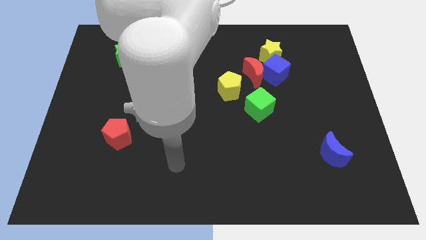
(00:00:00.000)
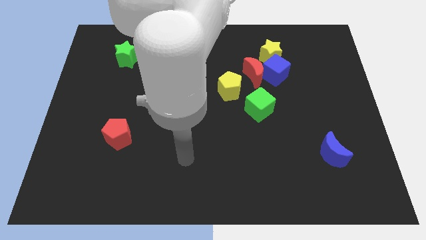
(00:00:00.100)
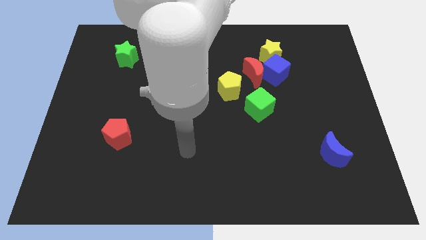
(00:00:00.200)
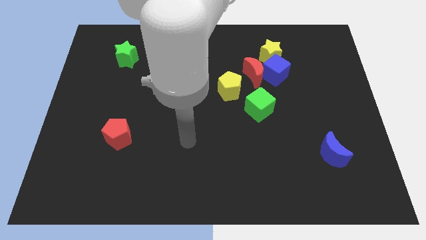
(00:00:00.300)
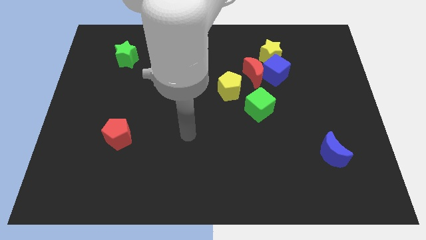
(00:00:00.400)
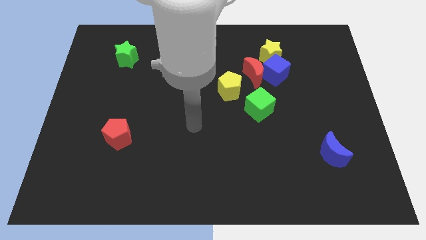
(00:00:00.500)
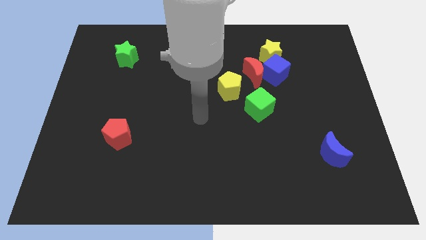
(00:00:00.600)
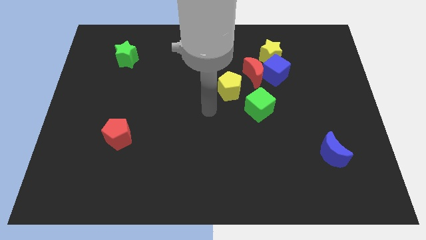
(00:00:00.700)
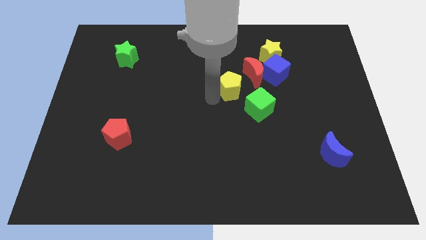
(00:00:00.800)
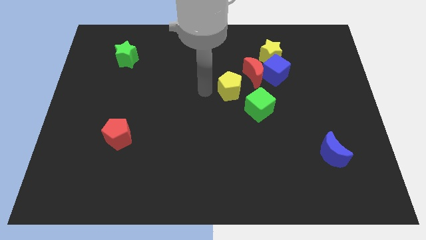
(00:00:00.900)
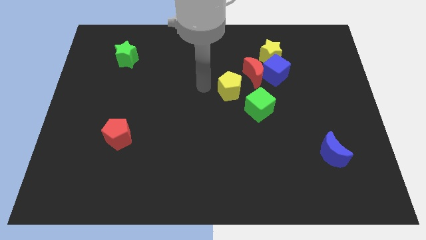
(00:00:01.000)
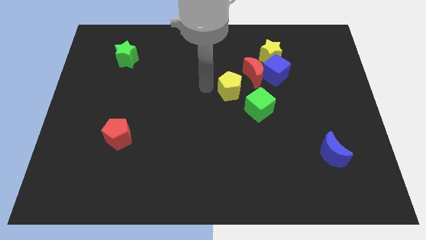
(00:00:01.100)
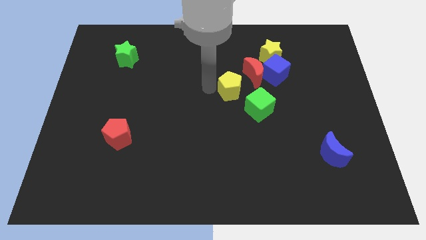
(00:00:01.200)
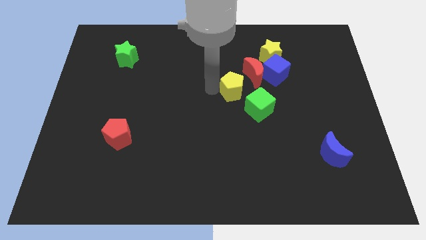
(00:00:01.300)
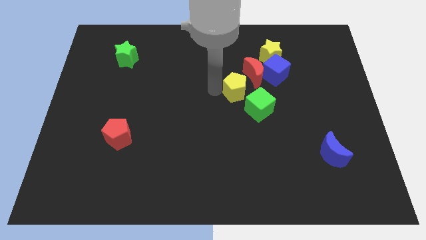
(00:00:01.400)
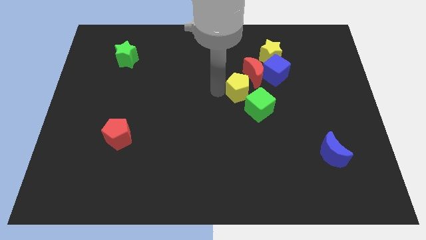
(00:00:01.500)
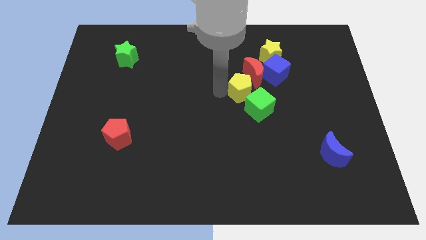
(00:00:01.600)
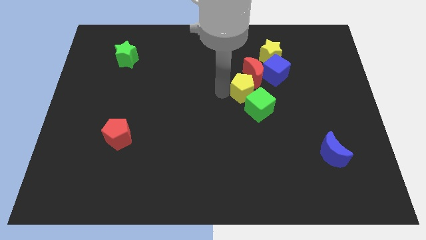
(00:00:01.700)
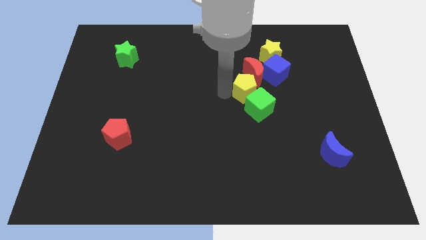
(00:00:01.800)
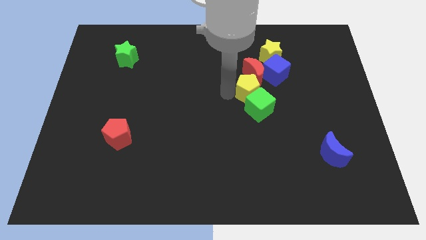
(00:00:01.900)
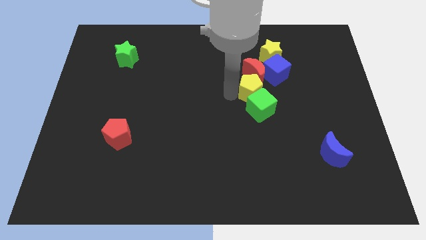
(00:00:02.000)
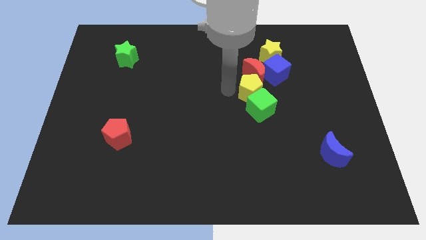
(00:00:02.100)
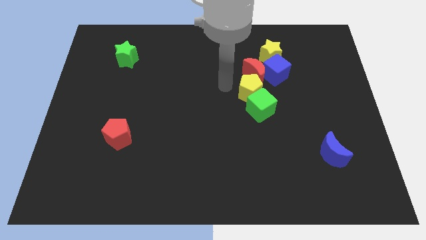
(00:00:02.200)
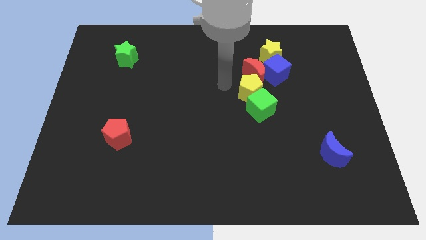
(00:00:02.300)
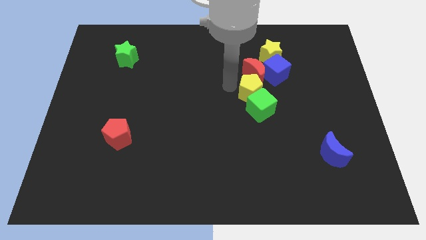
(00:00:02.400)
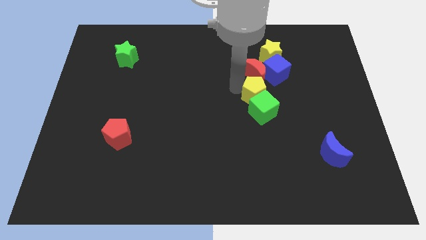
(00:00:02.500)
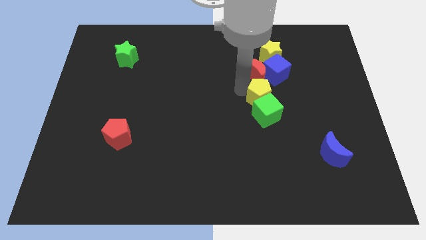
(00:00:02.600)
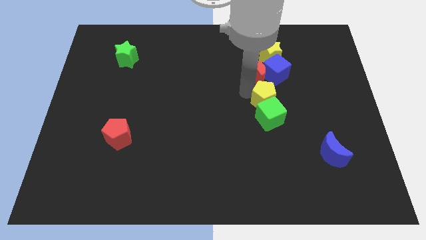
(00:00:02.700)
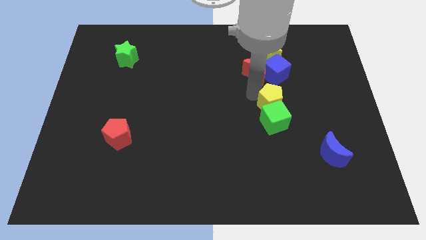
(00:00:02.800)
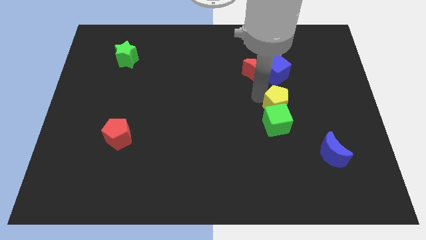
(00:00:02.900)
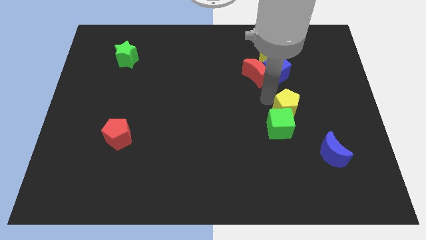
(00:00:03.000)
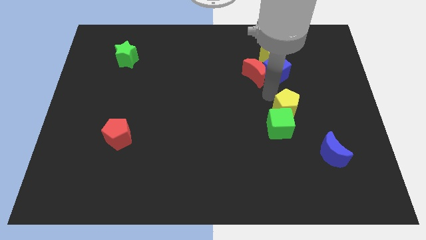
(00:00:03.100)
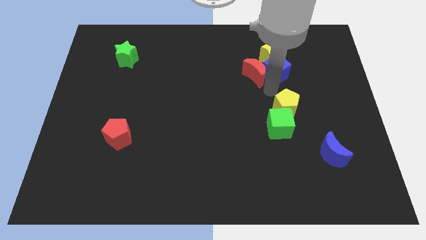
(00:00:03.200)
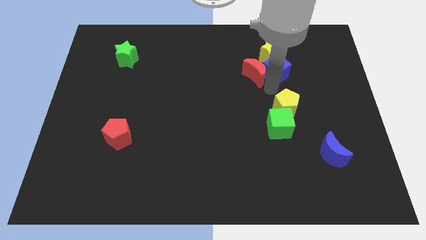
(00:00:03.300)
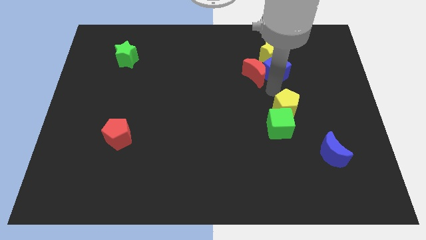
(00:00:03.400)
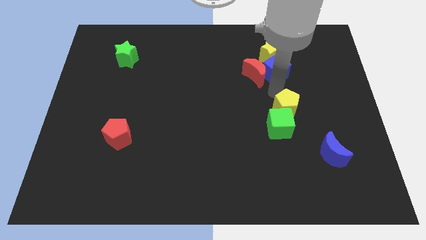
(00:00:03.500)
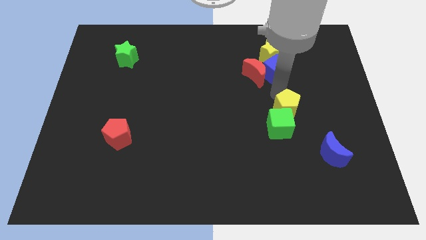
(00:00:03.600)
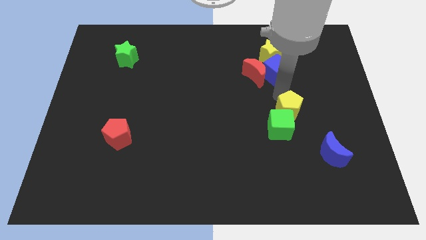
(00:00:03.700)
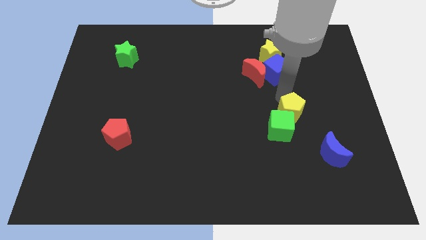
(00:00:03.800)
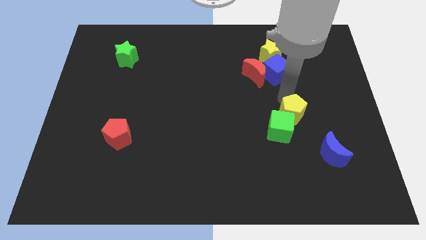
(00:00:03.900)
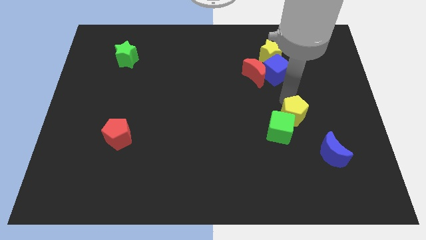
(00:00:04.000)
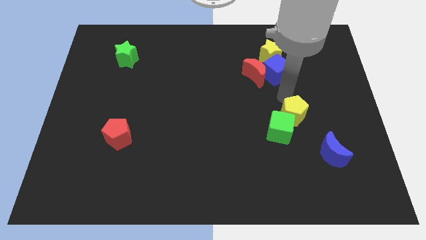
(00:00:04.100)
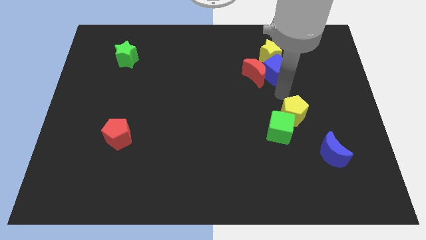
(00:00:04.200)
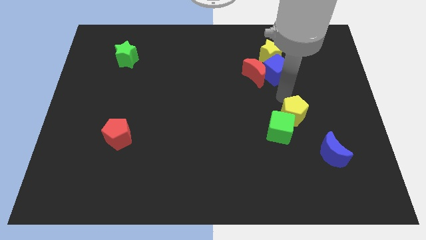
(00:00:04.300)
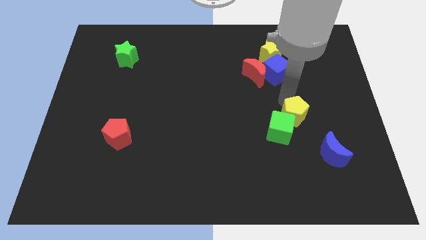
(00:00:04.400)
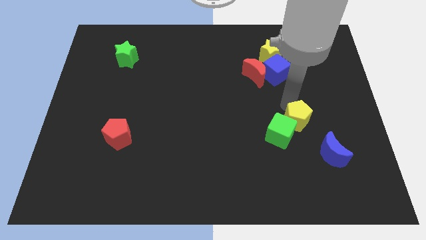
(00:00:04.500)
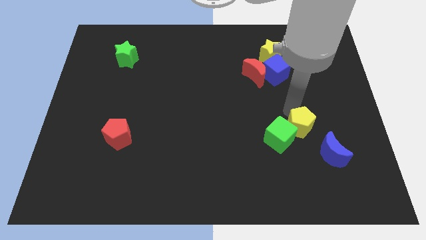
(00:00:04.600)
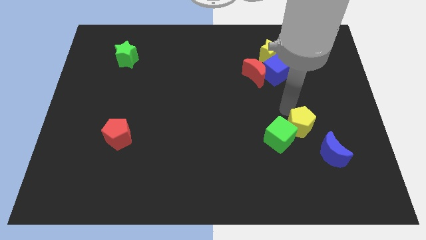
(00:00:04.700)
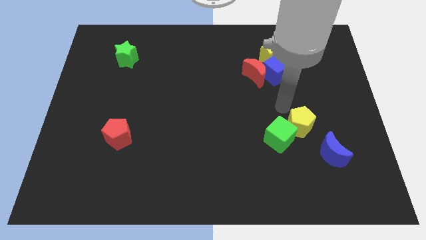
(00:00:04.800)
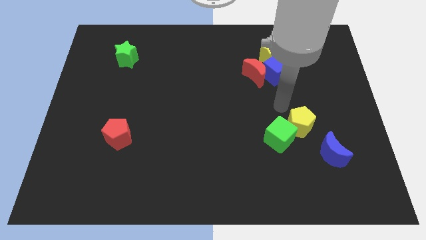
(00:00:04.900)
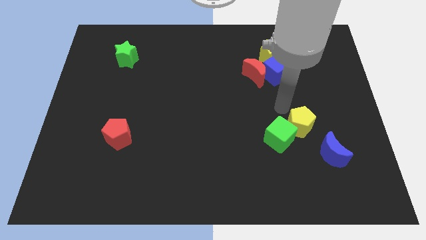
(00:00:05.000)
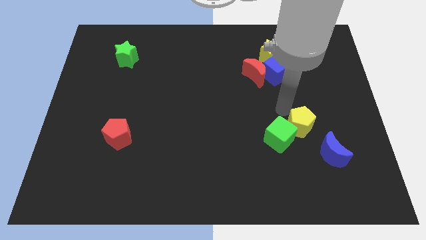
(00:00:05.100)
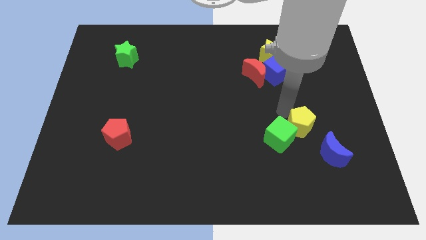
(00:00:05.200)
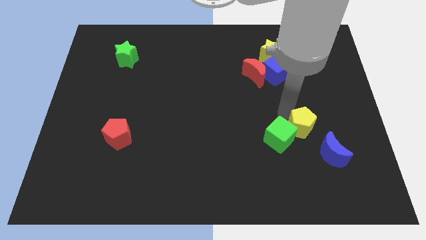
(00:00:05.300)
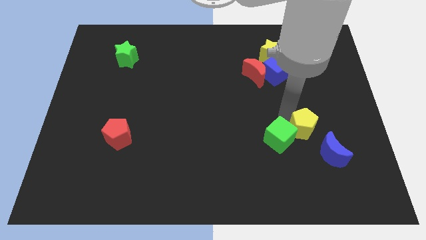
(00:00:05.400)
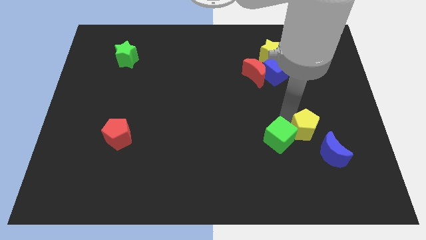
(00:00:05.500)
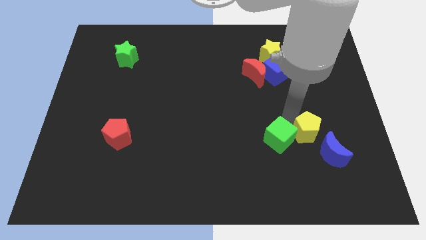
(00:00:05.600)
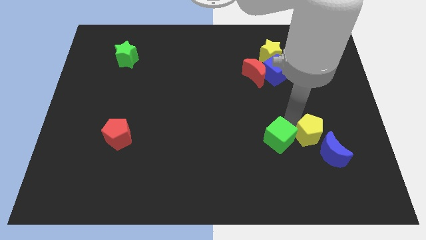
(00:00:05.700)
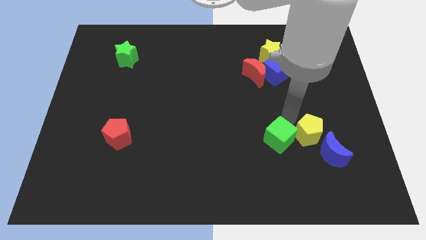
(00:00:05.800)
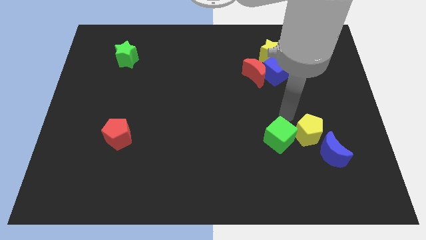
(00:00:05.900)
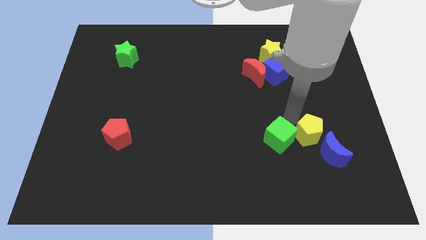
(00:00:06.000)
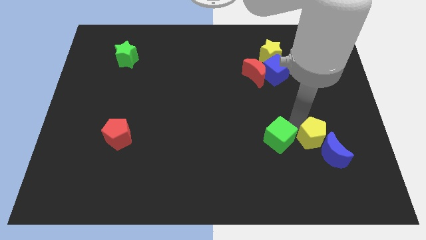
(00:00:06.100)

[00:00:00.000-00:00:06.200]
put the yellow pentagon towards the blue moon
